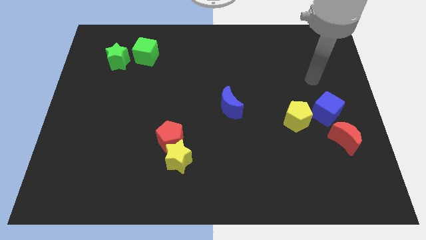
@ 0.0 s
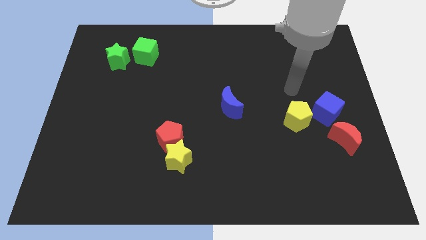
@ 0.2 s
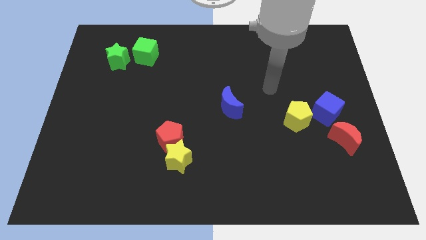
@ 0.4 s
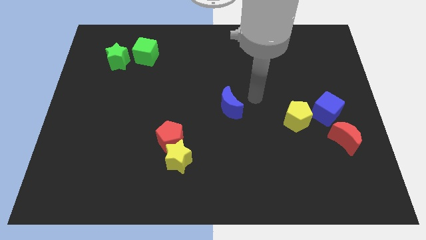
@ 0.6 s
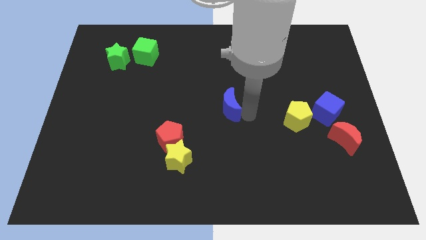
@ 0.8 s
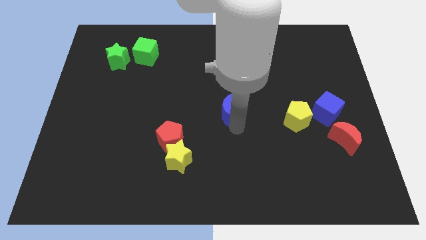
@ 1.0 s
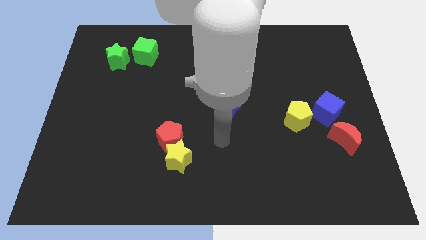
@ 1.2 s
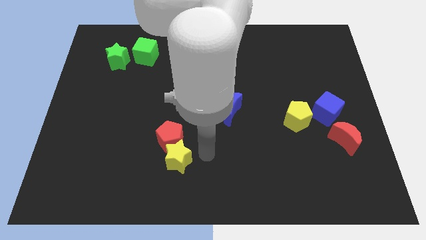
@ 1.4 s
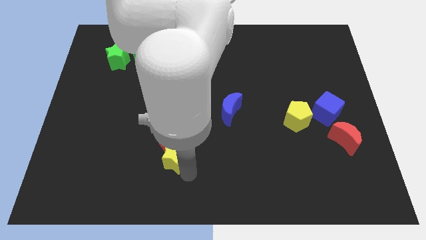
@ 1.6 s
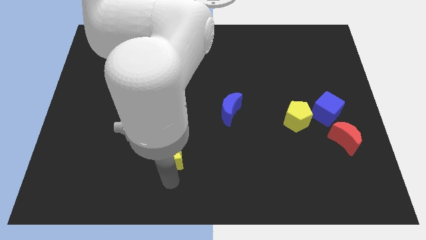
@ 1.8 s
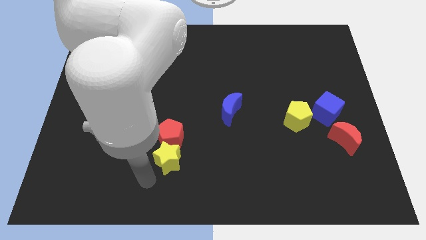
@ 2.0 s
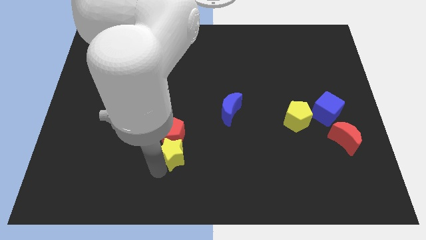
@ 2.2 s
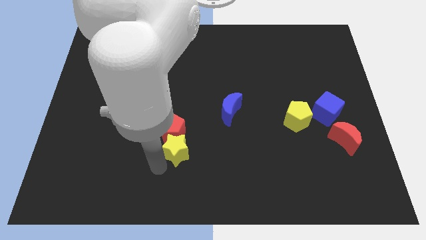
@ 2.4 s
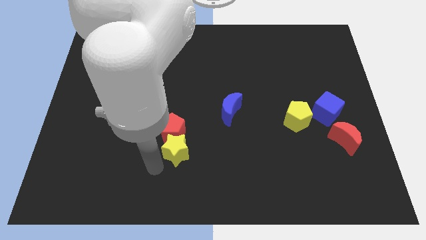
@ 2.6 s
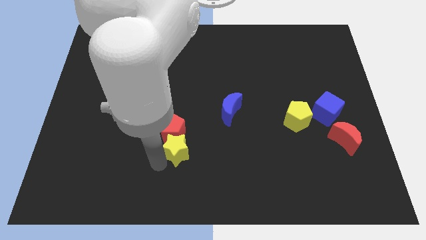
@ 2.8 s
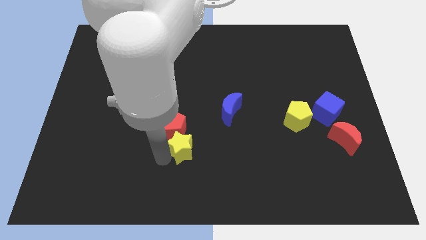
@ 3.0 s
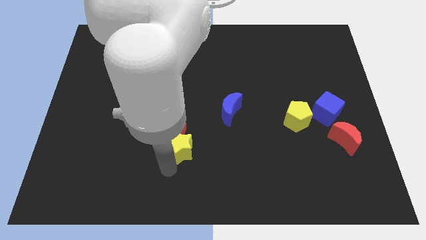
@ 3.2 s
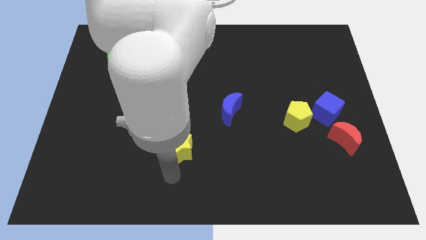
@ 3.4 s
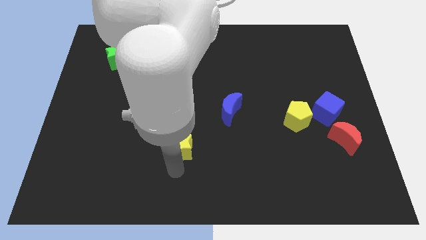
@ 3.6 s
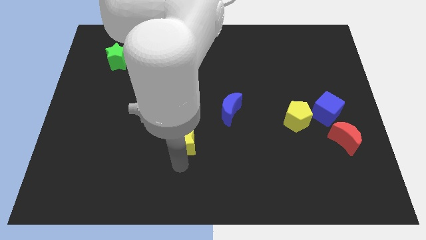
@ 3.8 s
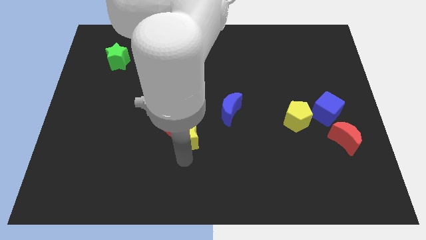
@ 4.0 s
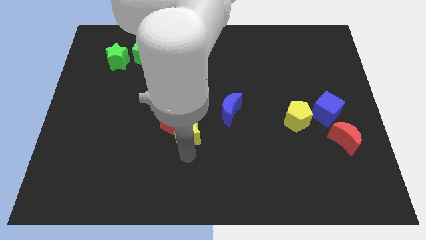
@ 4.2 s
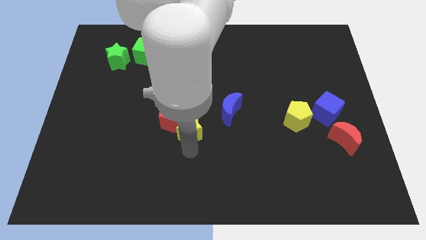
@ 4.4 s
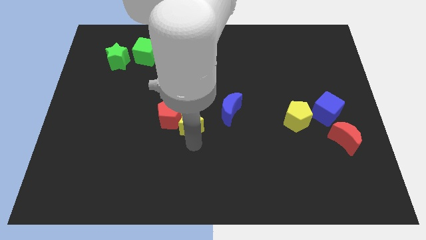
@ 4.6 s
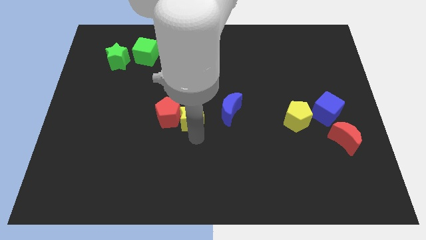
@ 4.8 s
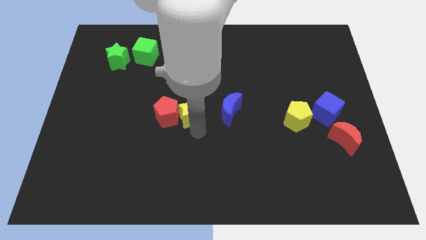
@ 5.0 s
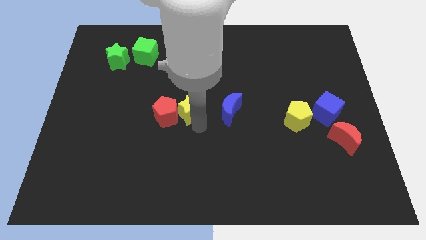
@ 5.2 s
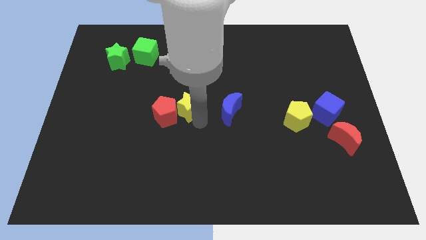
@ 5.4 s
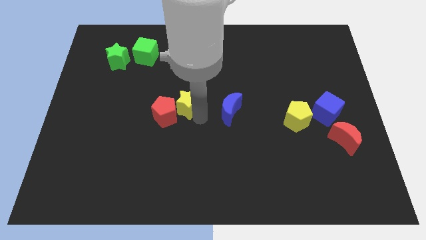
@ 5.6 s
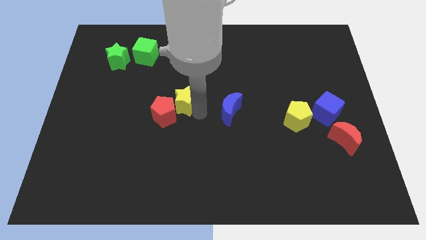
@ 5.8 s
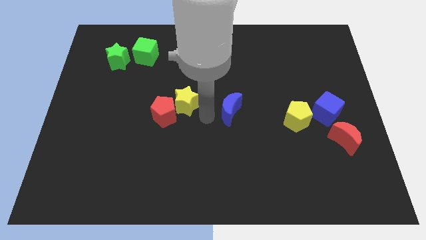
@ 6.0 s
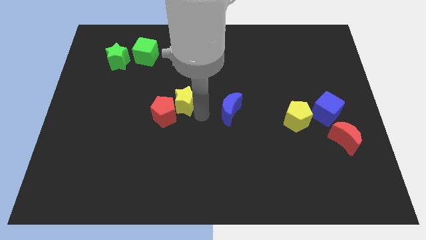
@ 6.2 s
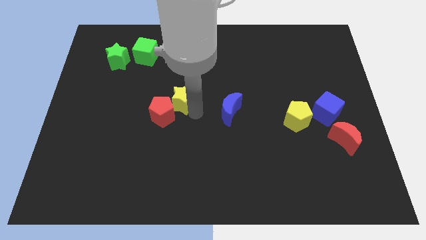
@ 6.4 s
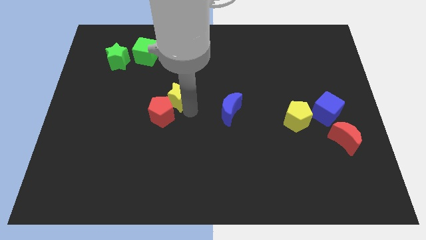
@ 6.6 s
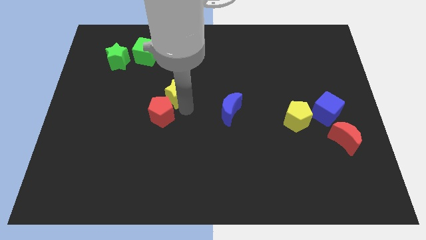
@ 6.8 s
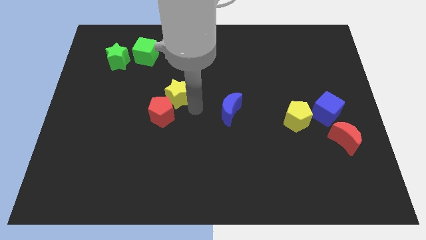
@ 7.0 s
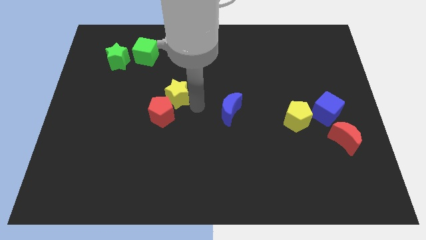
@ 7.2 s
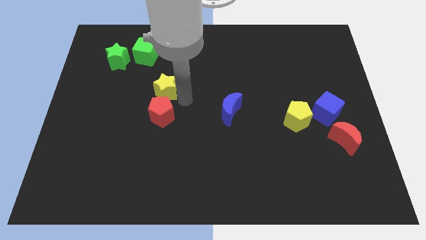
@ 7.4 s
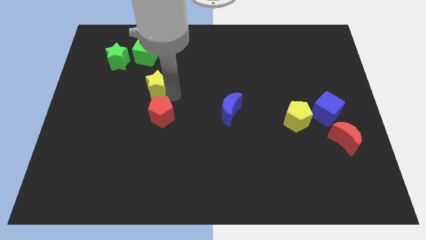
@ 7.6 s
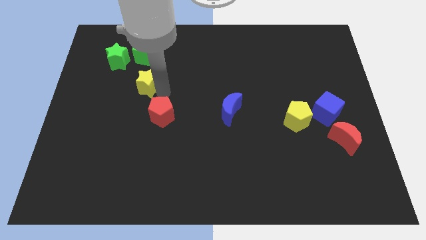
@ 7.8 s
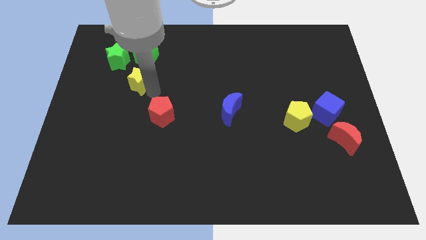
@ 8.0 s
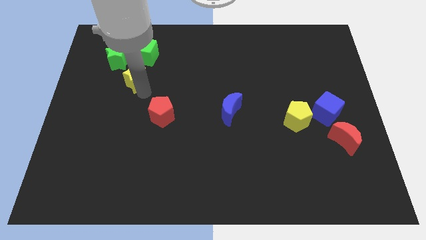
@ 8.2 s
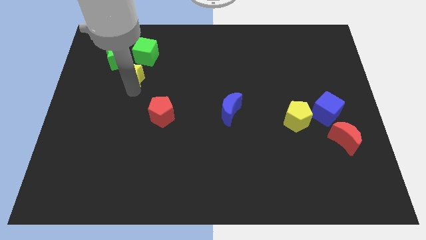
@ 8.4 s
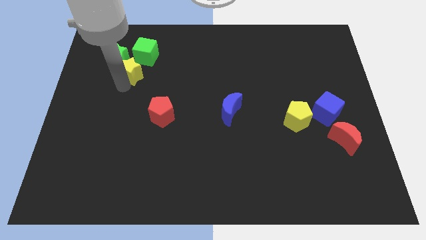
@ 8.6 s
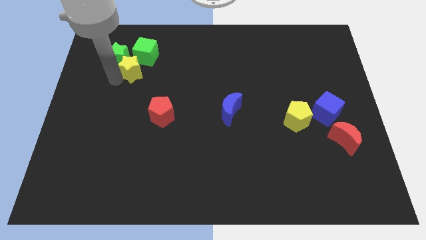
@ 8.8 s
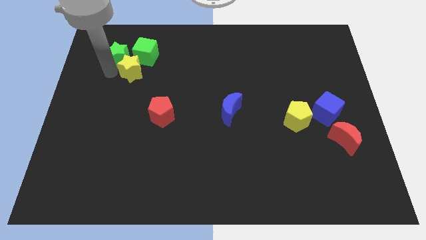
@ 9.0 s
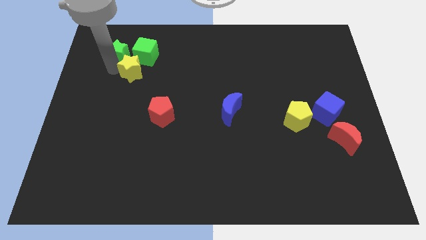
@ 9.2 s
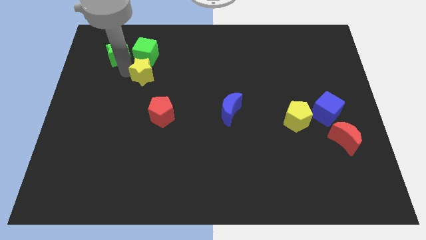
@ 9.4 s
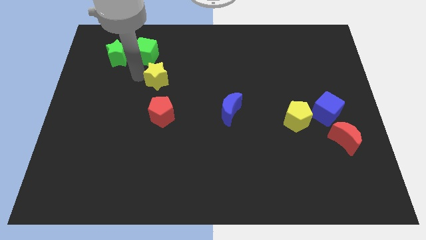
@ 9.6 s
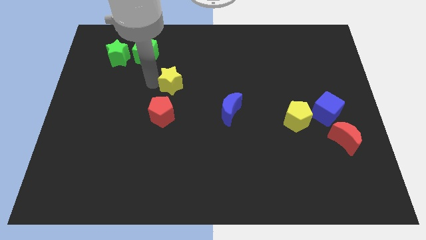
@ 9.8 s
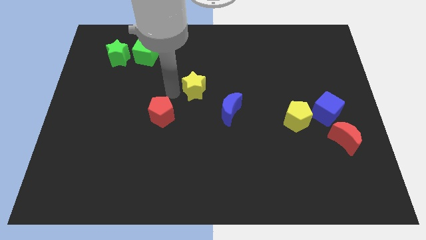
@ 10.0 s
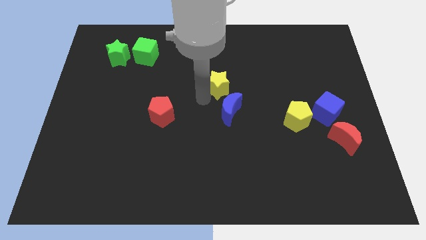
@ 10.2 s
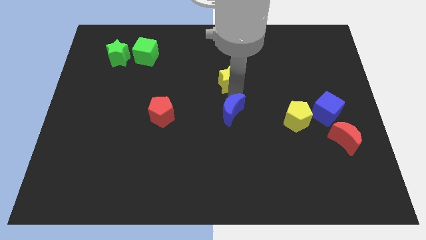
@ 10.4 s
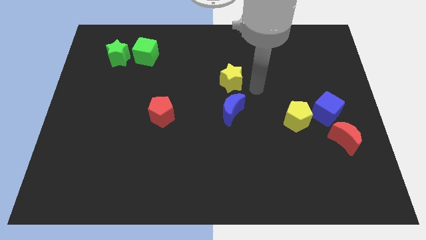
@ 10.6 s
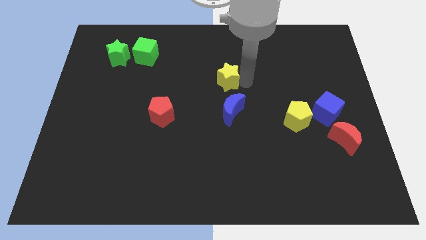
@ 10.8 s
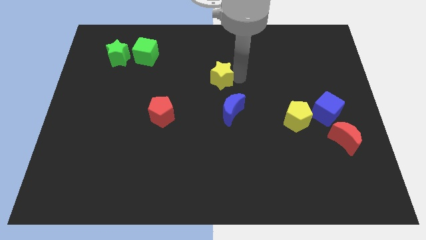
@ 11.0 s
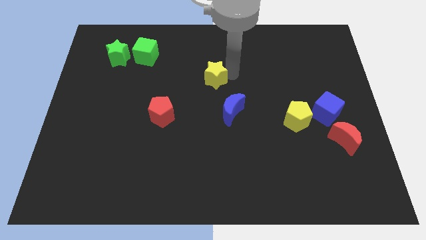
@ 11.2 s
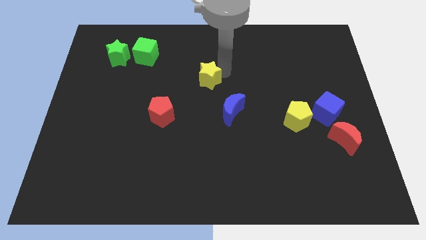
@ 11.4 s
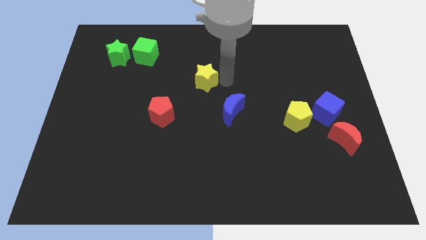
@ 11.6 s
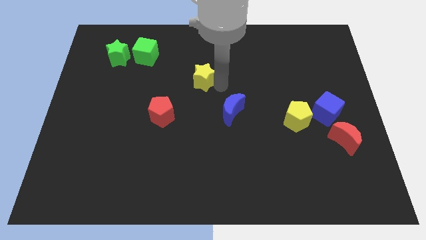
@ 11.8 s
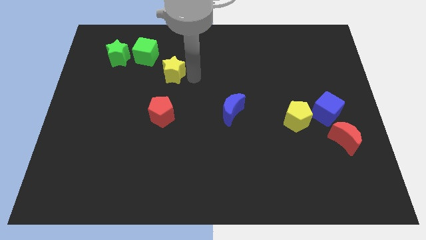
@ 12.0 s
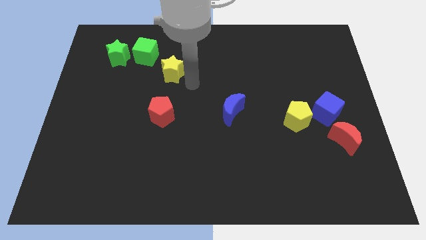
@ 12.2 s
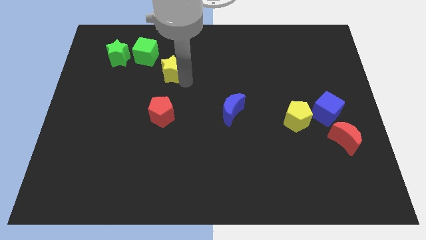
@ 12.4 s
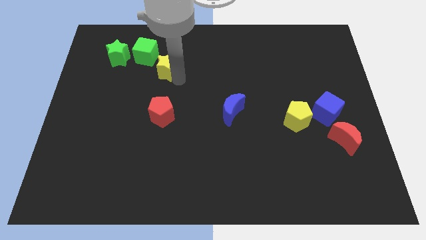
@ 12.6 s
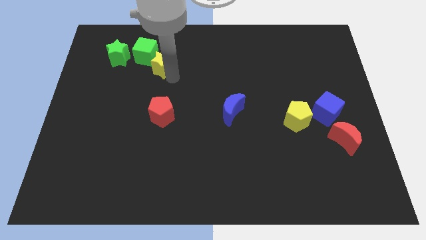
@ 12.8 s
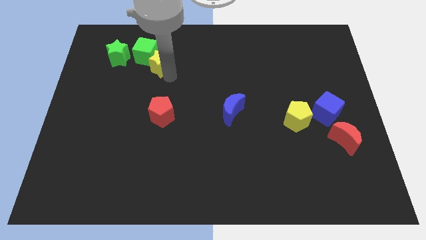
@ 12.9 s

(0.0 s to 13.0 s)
move the yellow star towards the green cube
